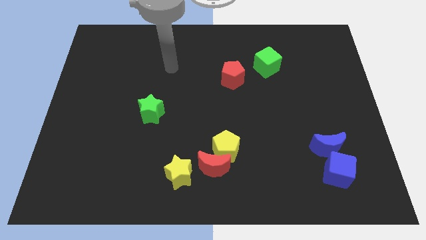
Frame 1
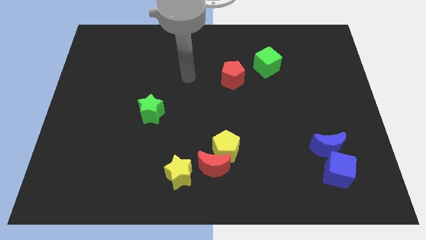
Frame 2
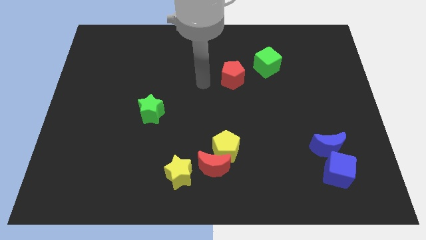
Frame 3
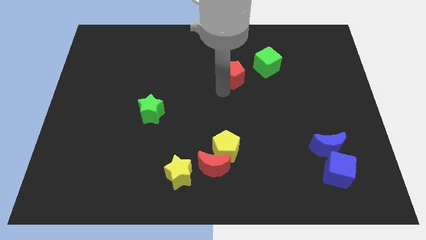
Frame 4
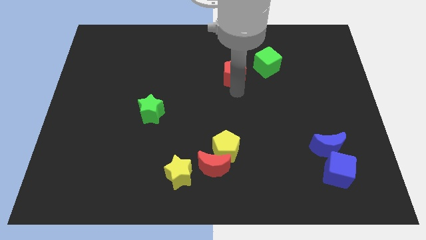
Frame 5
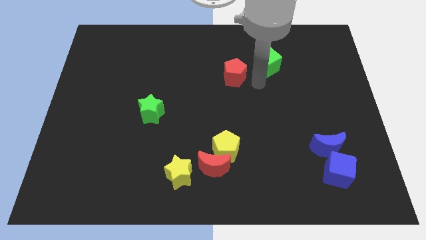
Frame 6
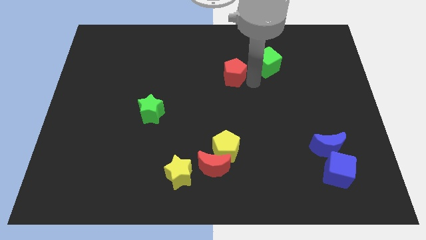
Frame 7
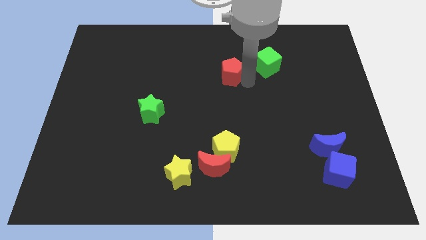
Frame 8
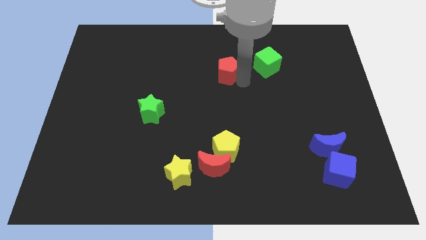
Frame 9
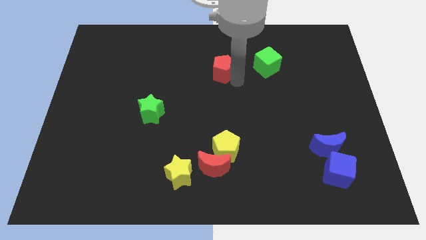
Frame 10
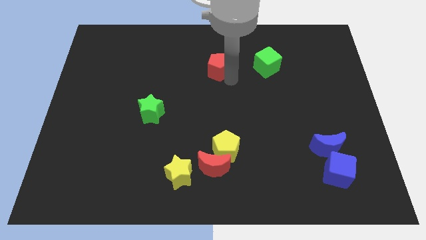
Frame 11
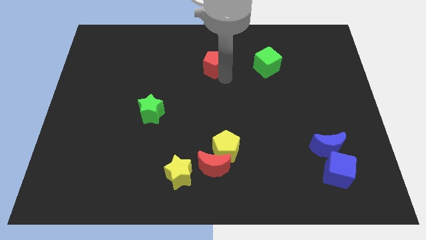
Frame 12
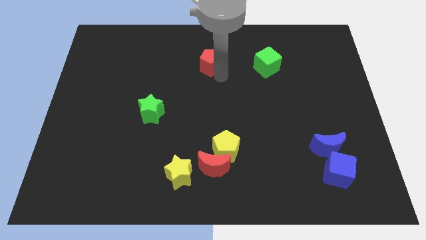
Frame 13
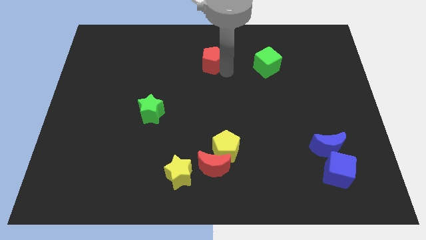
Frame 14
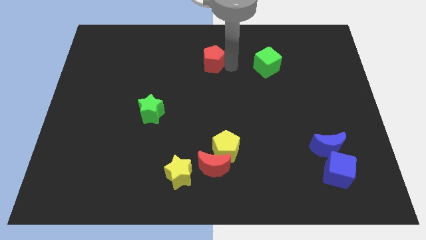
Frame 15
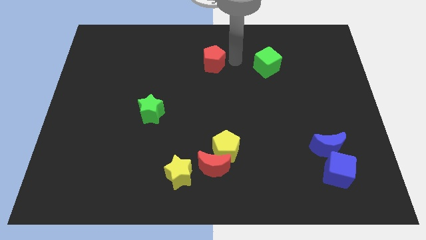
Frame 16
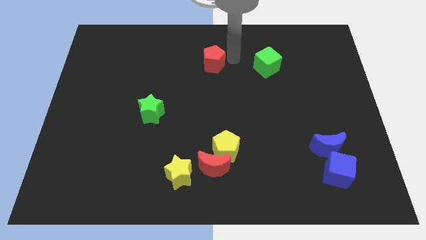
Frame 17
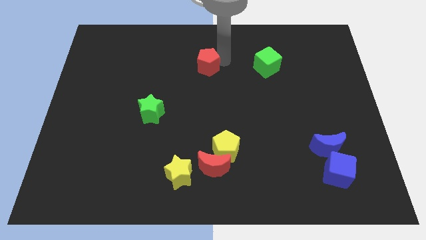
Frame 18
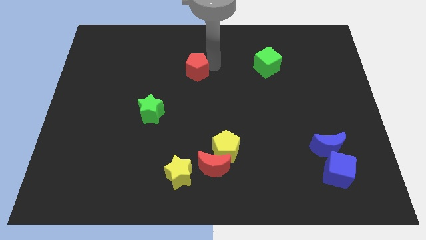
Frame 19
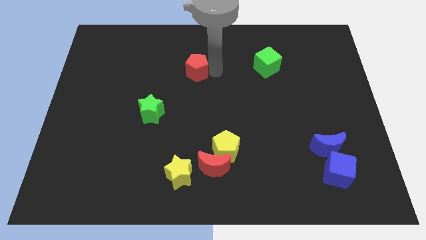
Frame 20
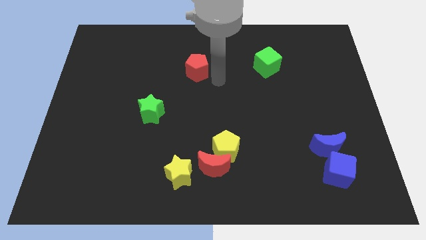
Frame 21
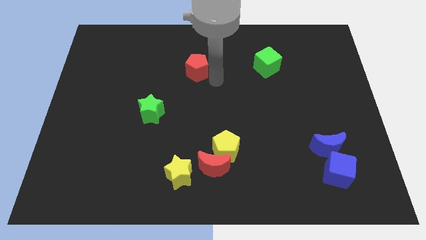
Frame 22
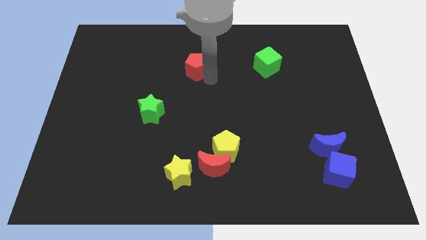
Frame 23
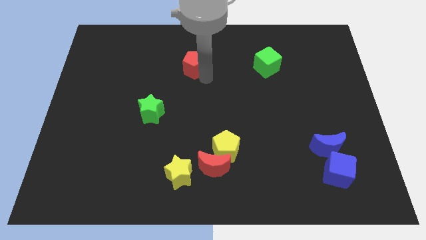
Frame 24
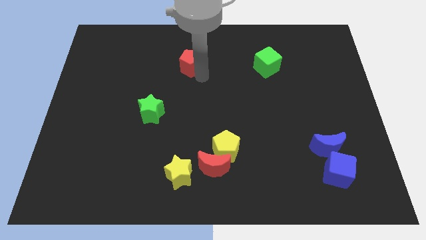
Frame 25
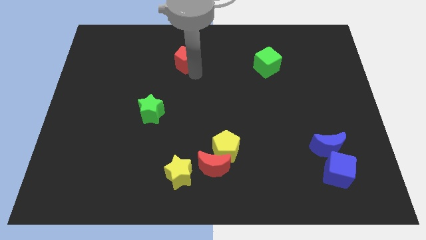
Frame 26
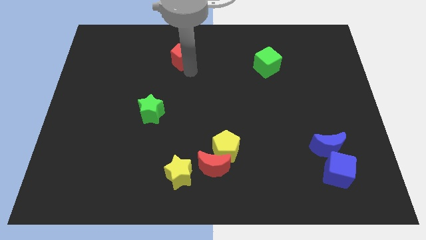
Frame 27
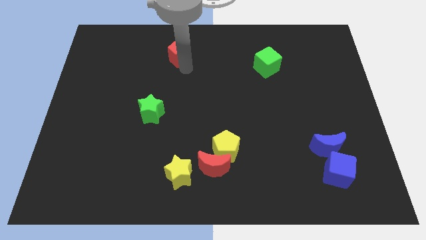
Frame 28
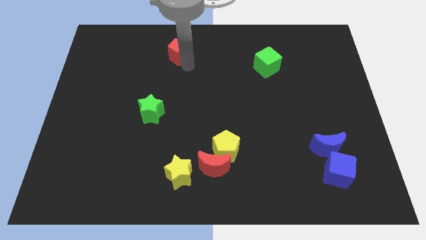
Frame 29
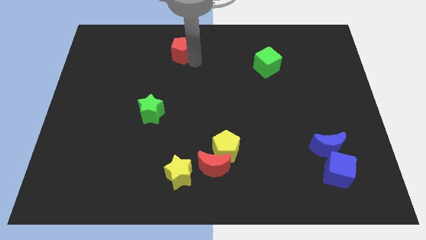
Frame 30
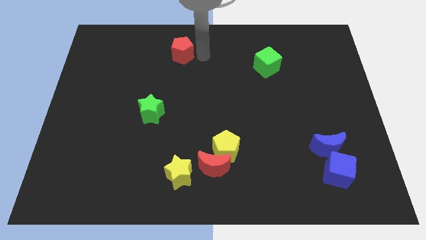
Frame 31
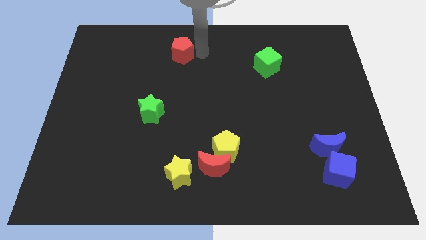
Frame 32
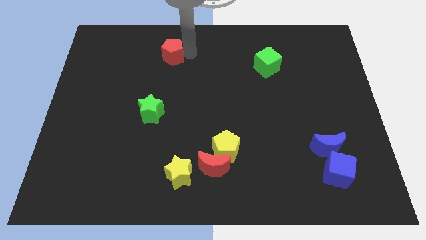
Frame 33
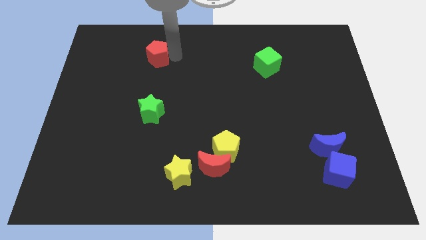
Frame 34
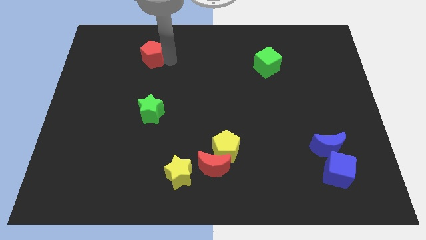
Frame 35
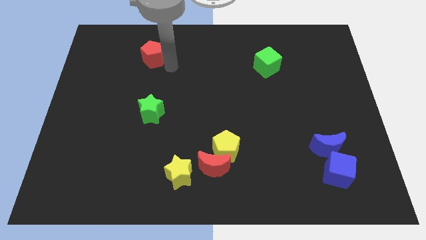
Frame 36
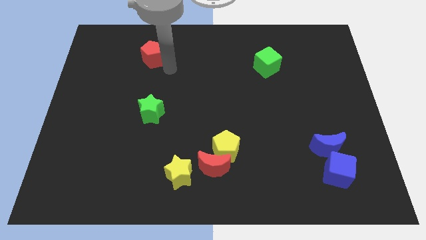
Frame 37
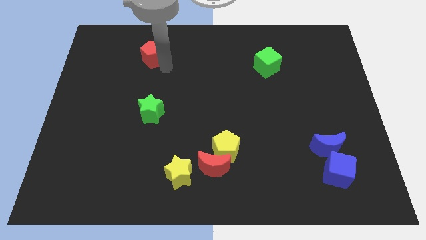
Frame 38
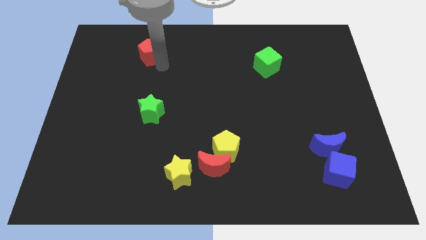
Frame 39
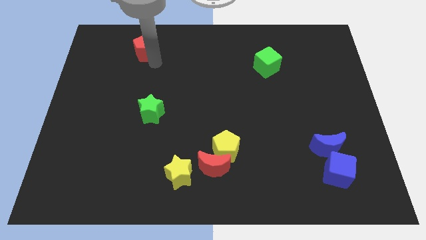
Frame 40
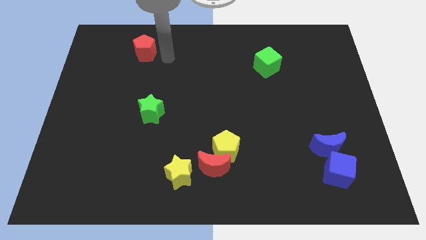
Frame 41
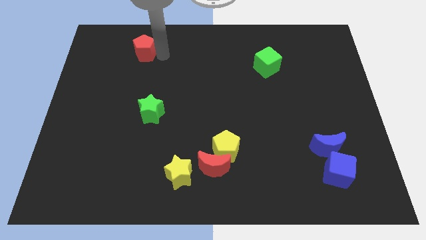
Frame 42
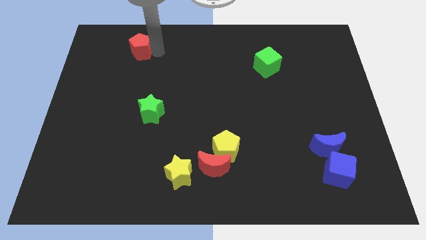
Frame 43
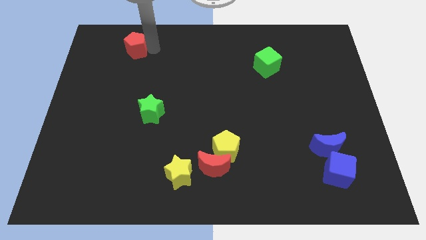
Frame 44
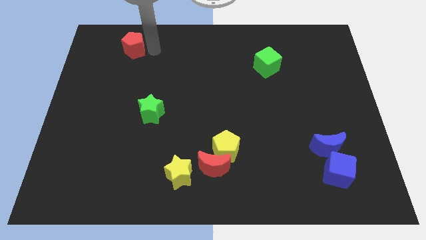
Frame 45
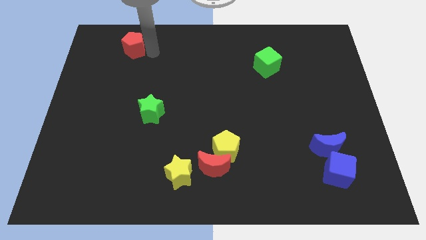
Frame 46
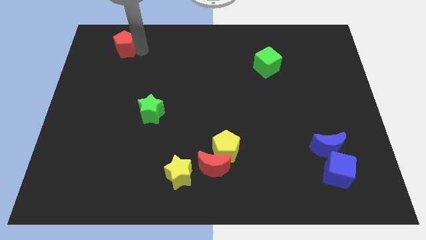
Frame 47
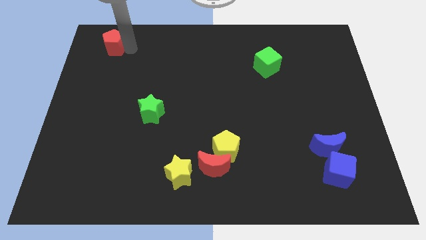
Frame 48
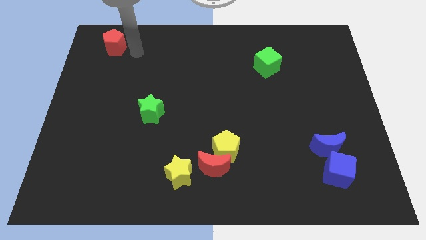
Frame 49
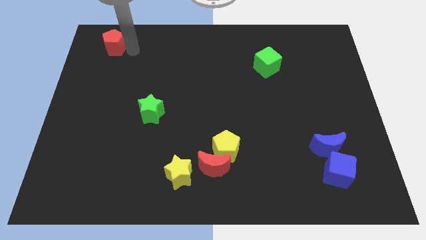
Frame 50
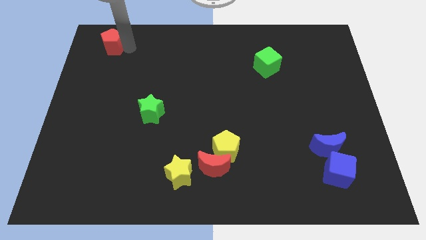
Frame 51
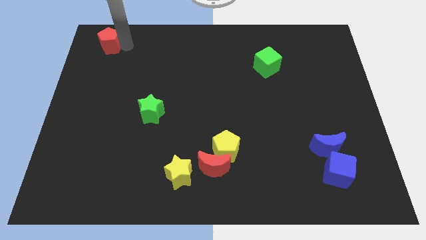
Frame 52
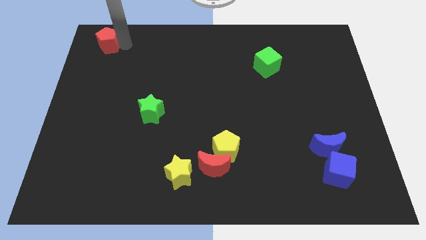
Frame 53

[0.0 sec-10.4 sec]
slide the red pentagon to the top left of the board

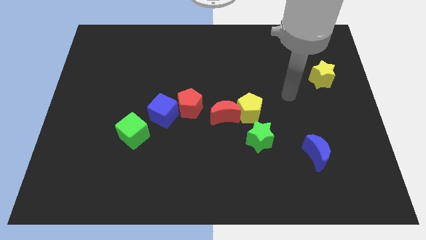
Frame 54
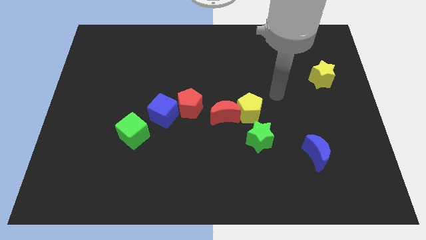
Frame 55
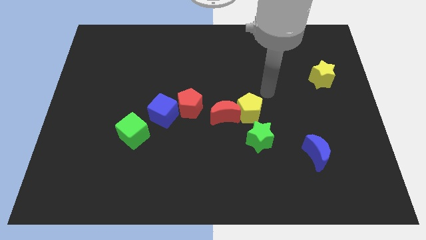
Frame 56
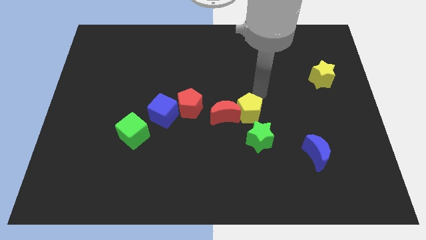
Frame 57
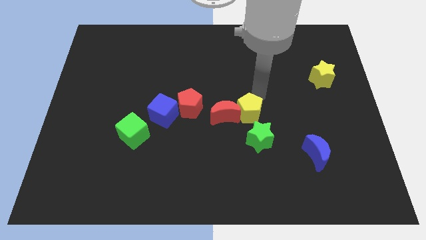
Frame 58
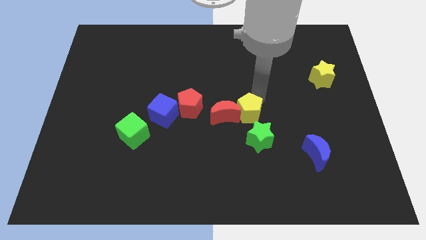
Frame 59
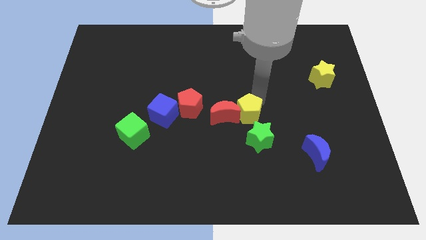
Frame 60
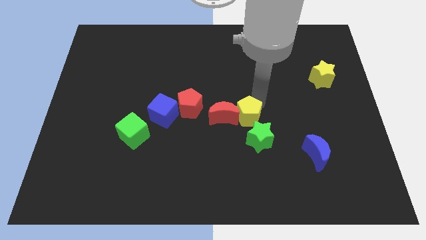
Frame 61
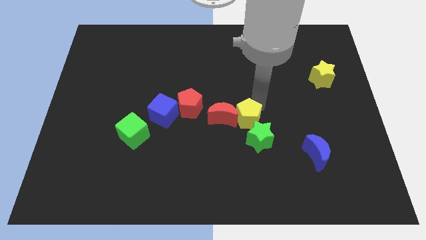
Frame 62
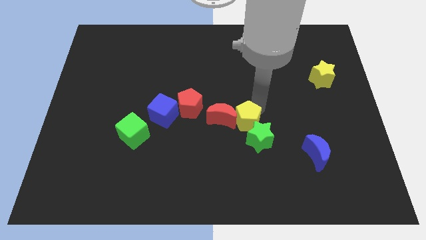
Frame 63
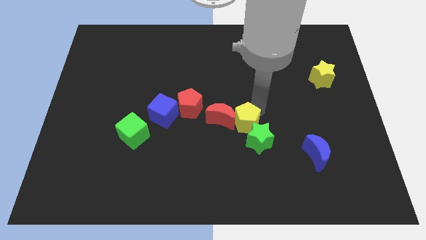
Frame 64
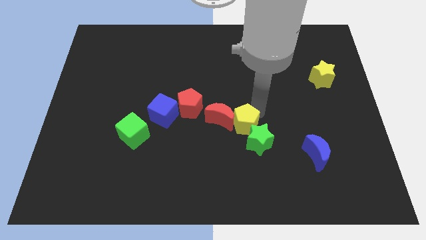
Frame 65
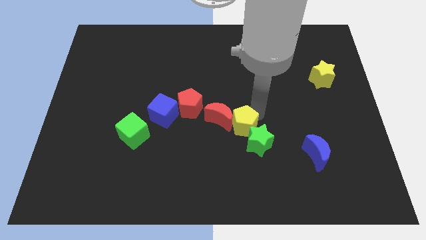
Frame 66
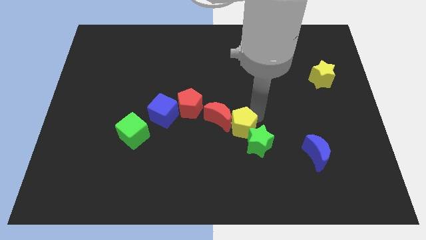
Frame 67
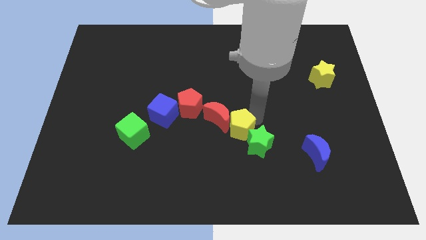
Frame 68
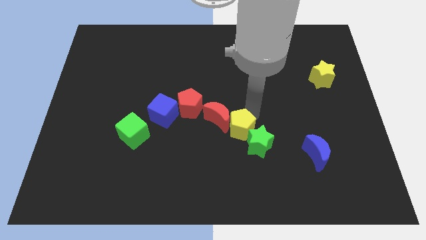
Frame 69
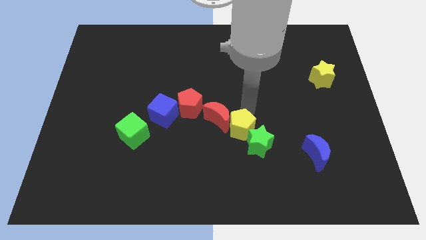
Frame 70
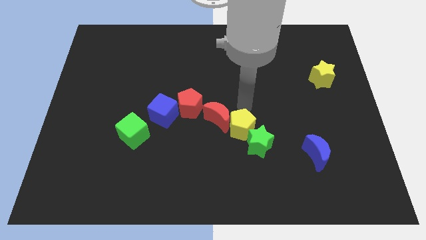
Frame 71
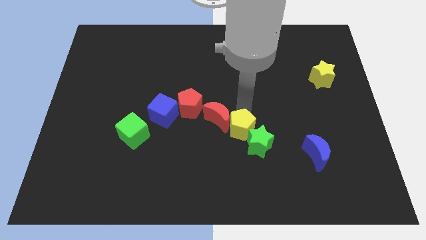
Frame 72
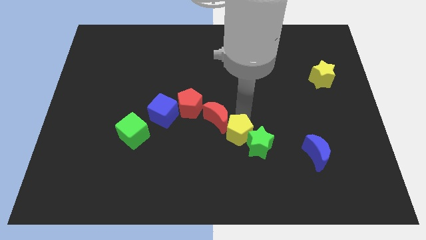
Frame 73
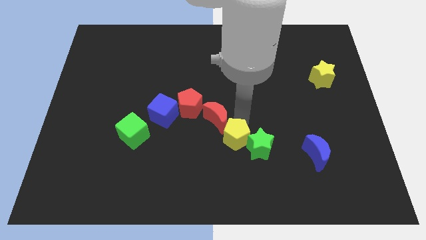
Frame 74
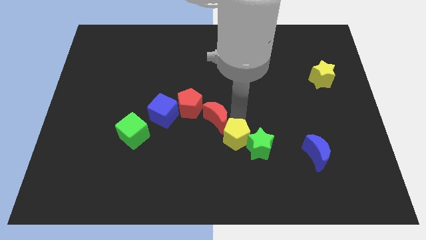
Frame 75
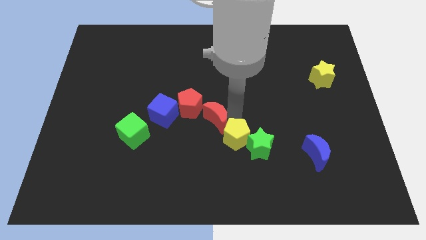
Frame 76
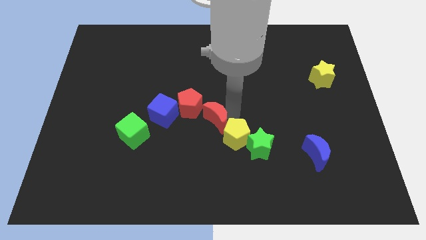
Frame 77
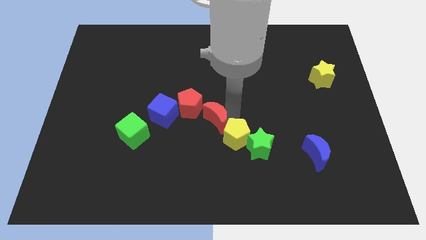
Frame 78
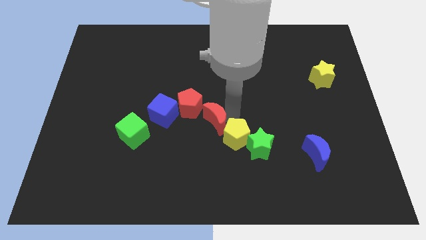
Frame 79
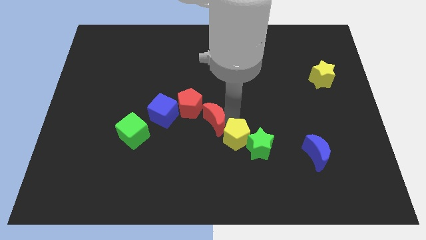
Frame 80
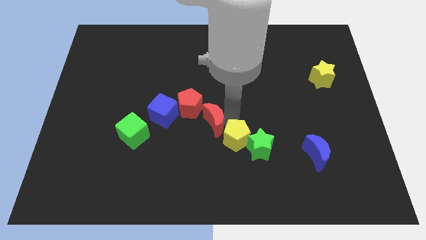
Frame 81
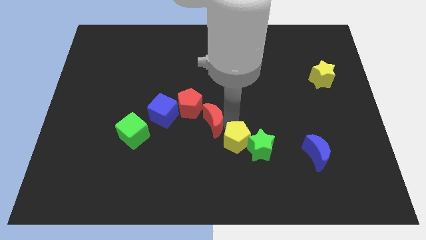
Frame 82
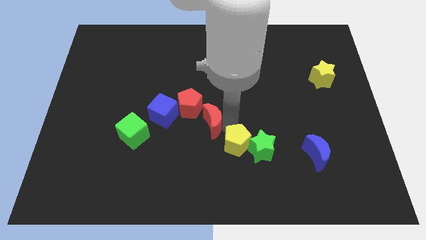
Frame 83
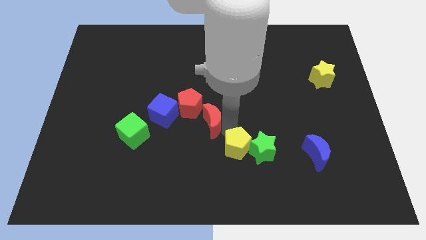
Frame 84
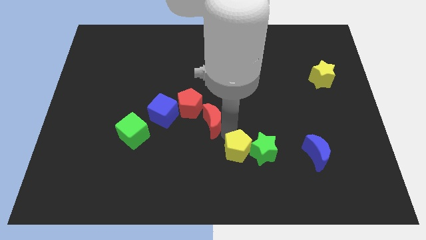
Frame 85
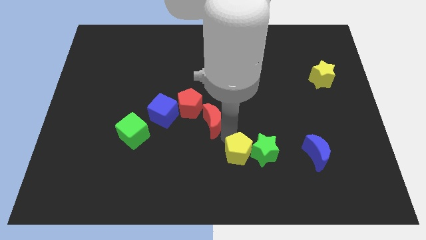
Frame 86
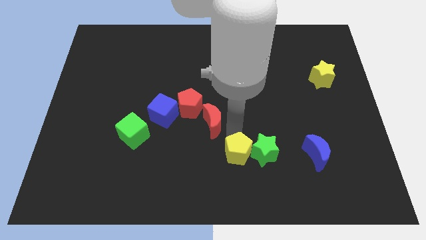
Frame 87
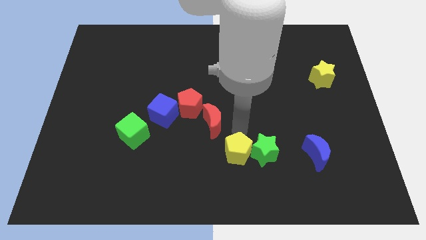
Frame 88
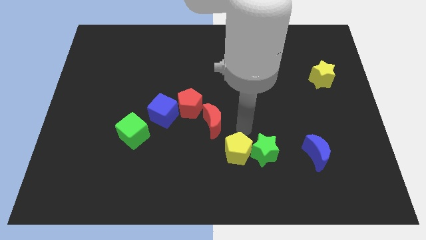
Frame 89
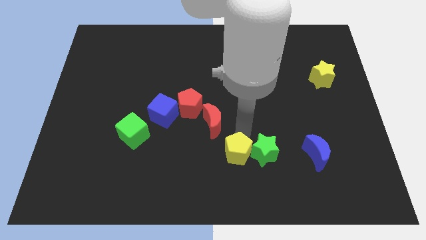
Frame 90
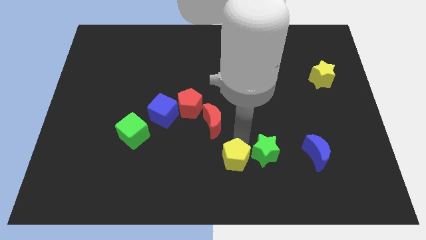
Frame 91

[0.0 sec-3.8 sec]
move the yellow pentagon to the bottom side
